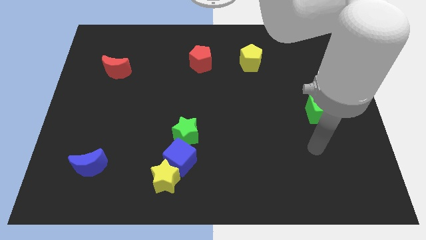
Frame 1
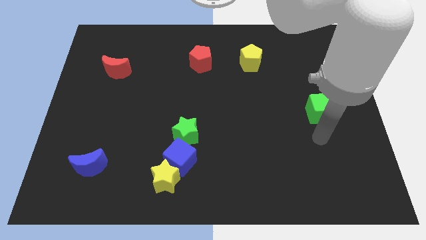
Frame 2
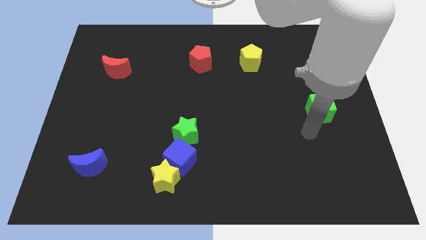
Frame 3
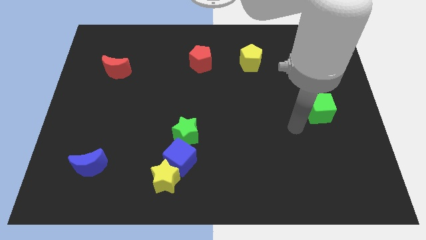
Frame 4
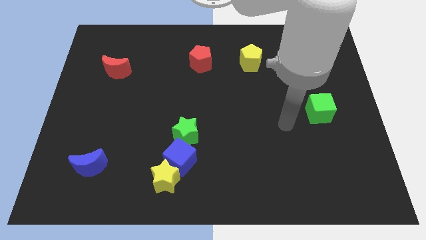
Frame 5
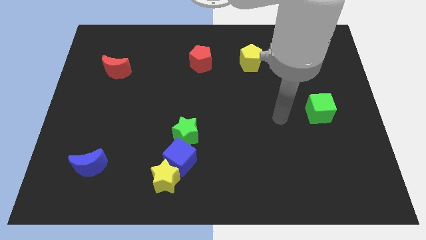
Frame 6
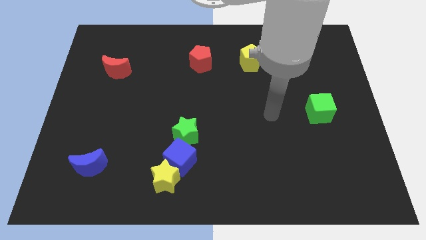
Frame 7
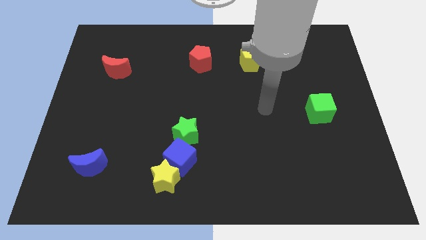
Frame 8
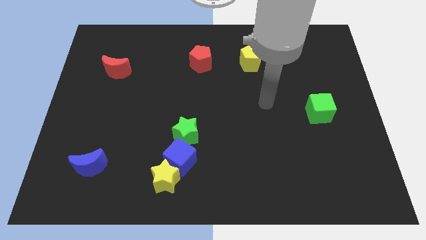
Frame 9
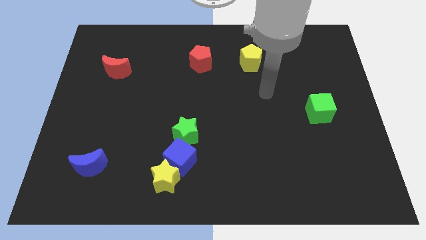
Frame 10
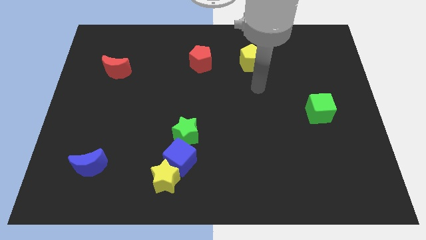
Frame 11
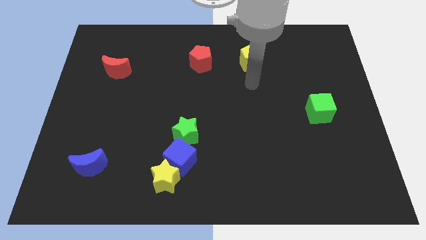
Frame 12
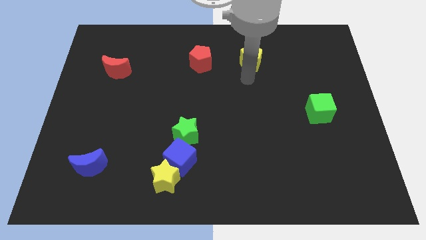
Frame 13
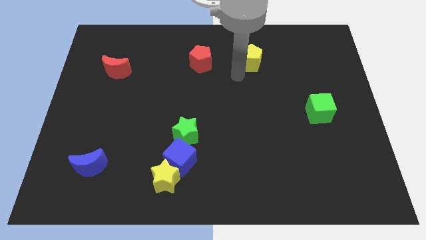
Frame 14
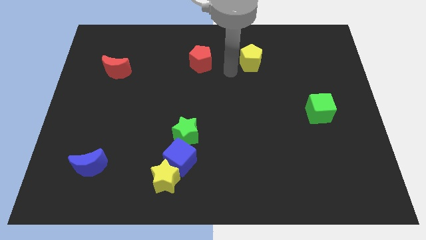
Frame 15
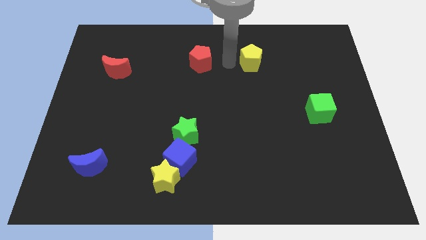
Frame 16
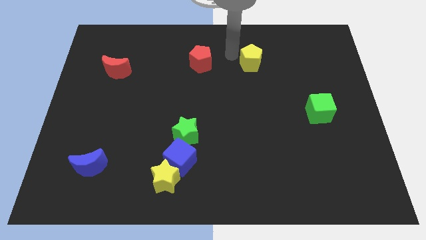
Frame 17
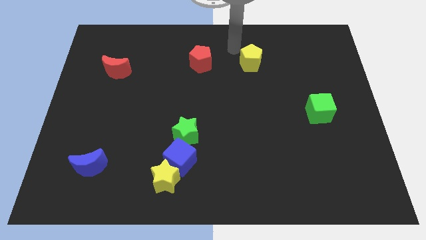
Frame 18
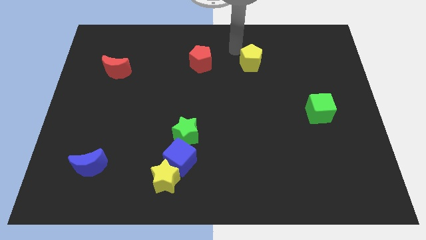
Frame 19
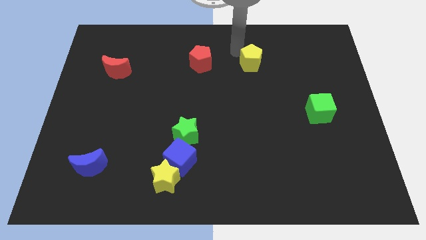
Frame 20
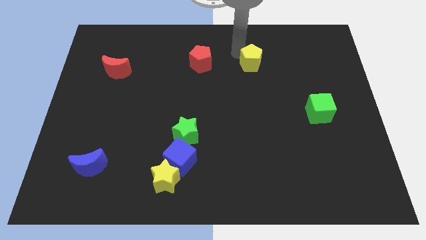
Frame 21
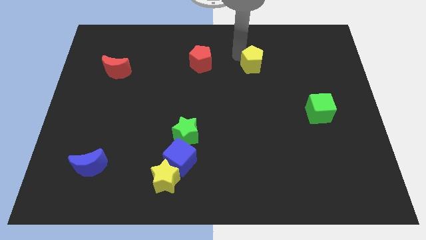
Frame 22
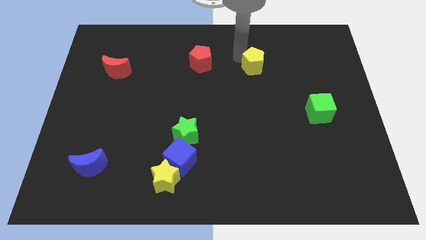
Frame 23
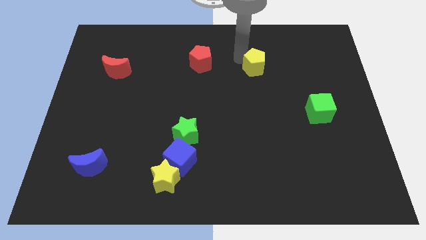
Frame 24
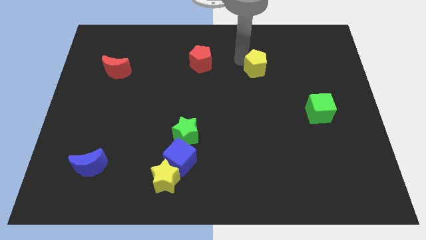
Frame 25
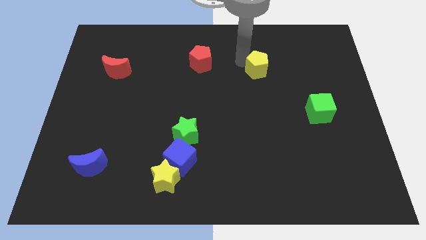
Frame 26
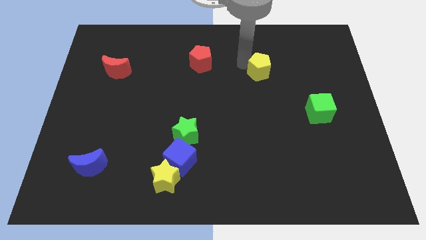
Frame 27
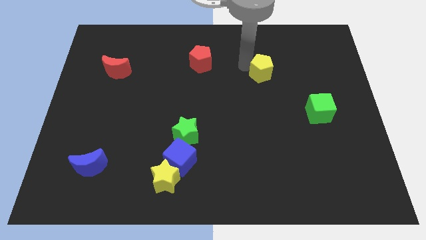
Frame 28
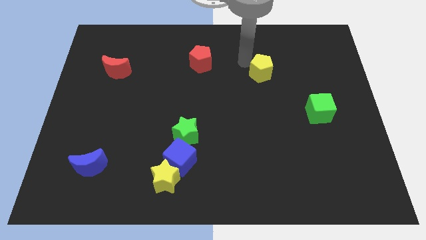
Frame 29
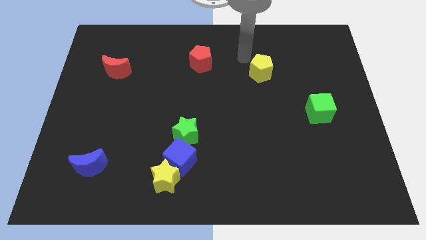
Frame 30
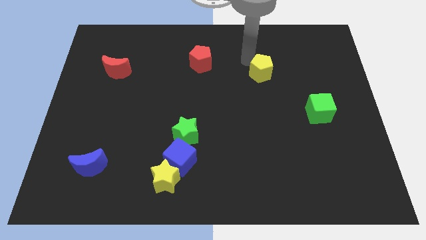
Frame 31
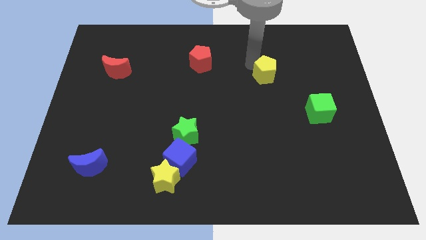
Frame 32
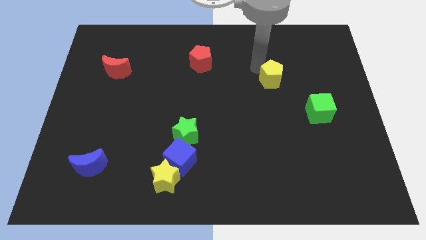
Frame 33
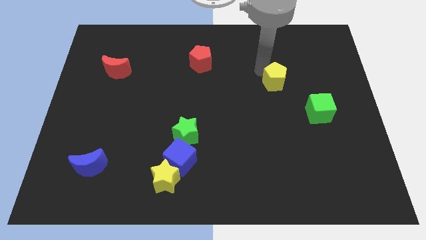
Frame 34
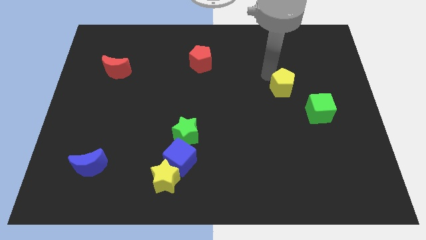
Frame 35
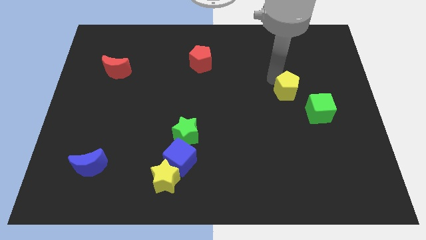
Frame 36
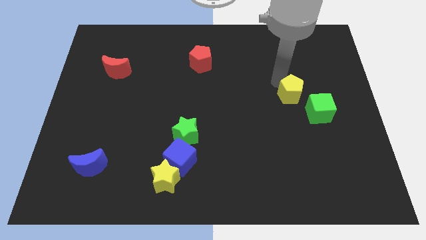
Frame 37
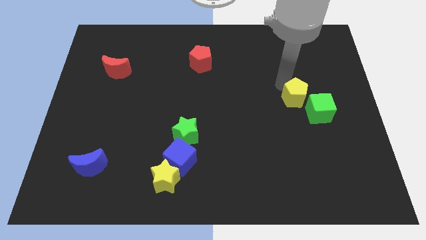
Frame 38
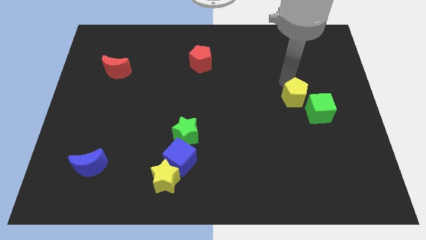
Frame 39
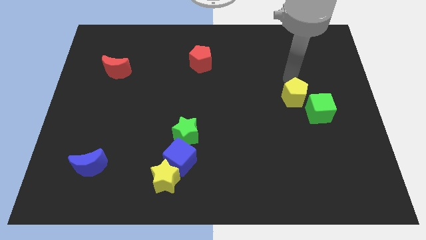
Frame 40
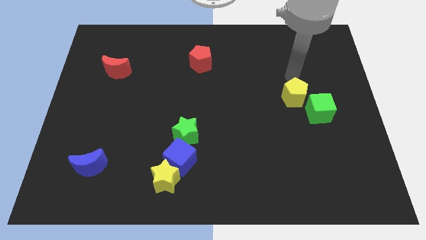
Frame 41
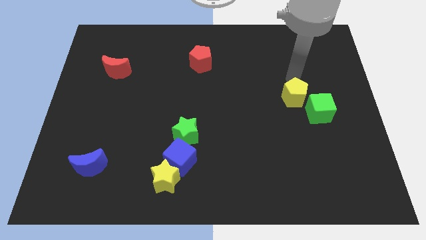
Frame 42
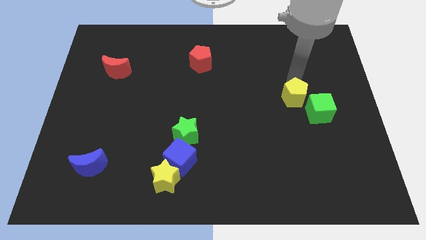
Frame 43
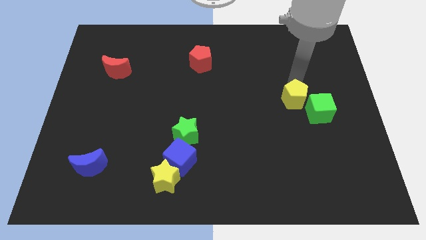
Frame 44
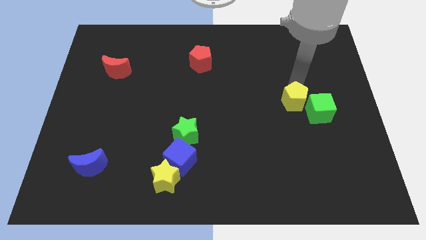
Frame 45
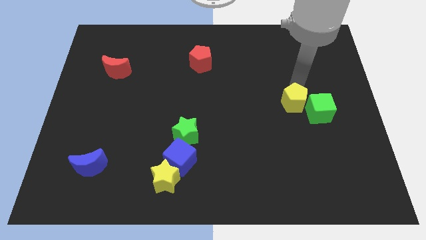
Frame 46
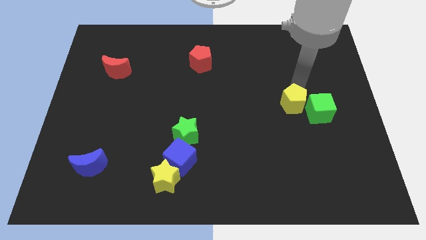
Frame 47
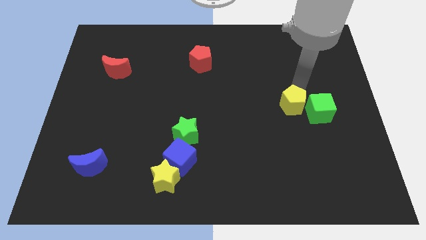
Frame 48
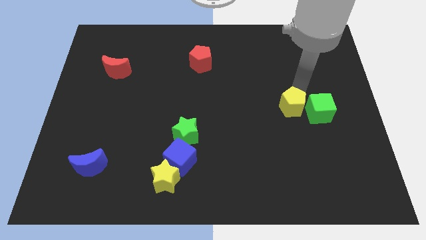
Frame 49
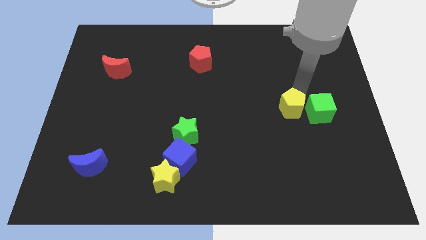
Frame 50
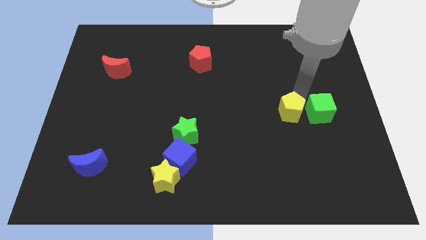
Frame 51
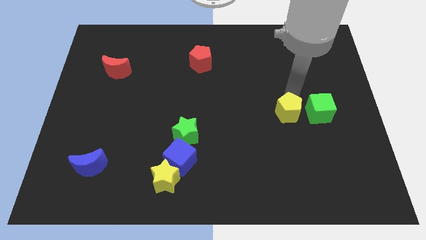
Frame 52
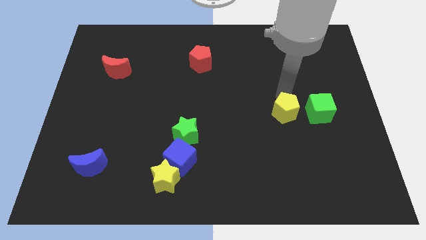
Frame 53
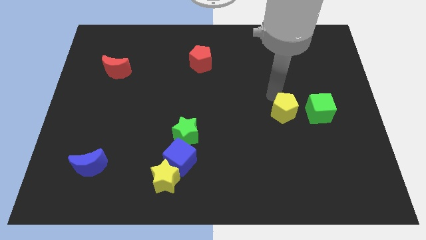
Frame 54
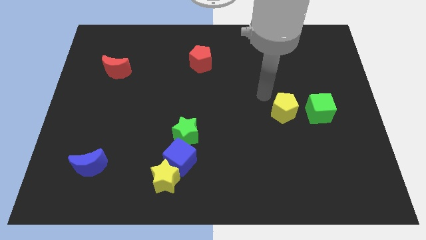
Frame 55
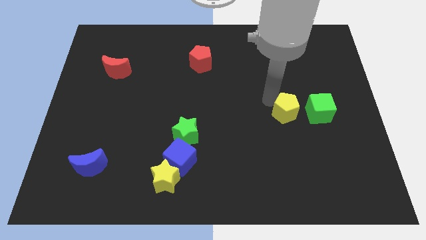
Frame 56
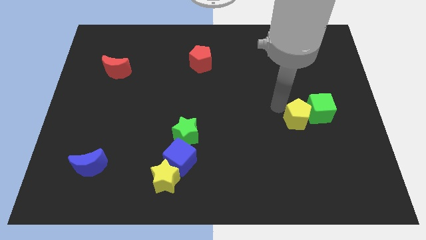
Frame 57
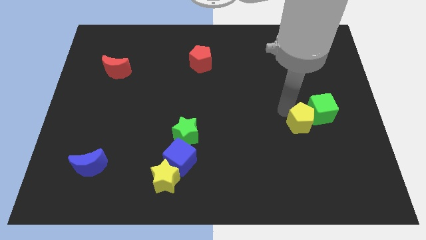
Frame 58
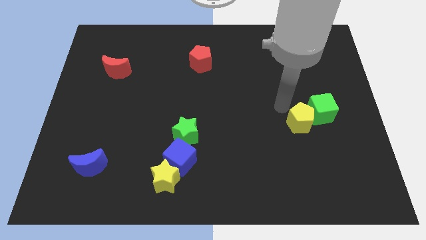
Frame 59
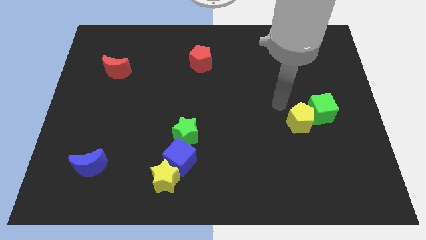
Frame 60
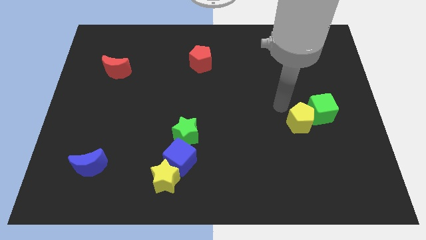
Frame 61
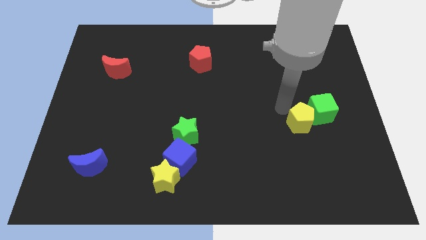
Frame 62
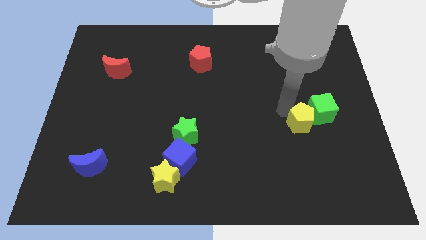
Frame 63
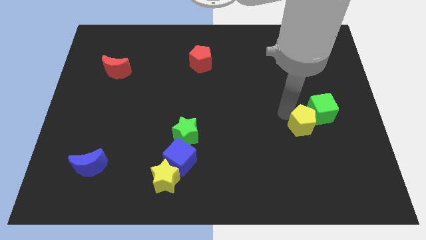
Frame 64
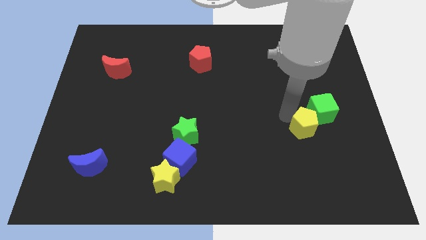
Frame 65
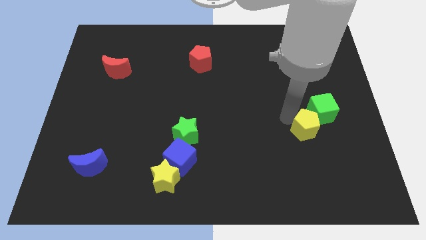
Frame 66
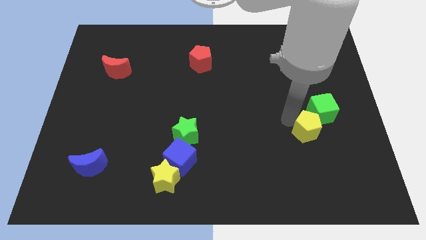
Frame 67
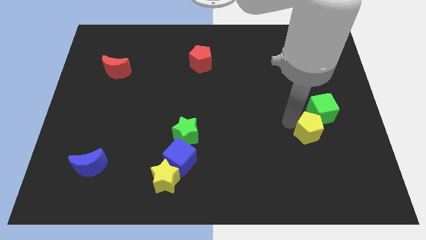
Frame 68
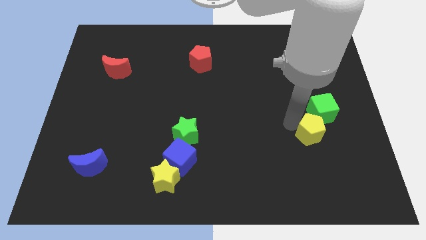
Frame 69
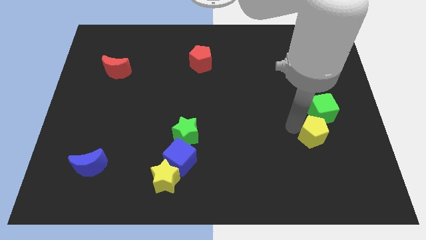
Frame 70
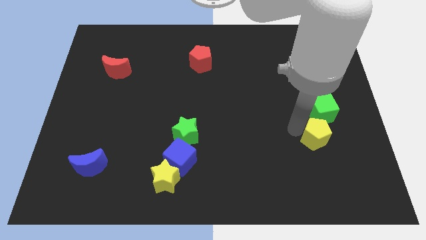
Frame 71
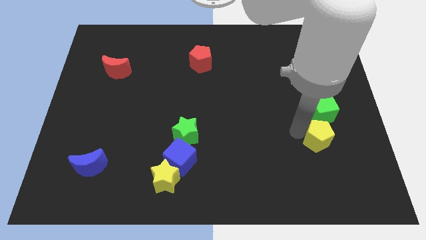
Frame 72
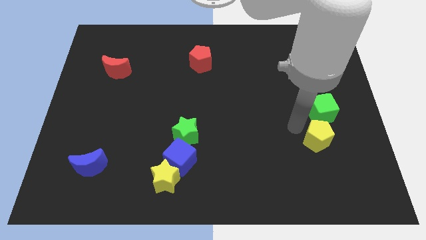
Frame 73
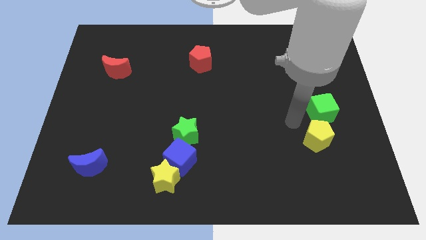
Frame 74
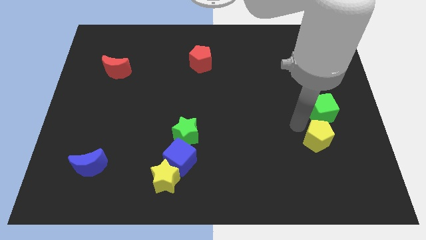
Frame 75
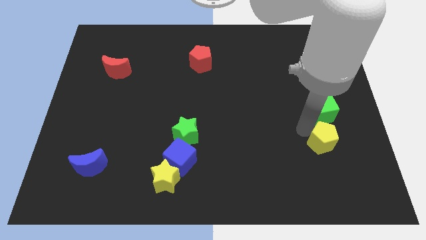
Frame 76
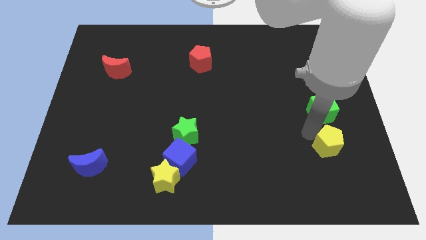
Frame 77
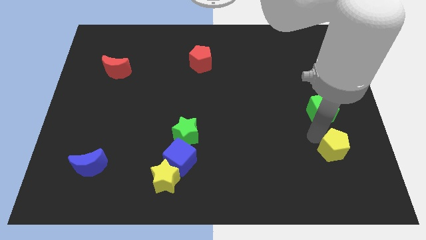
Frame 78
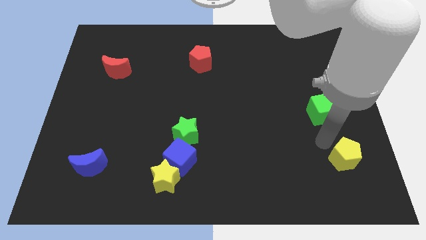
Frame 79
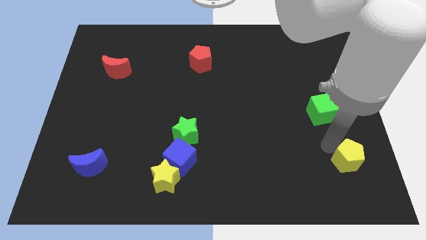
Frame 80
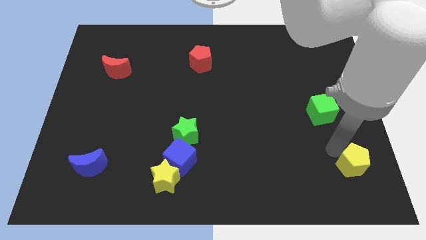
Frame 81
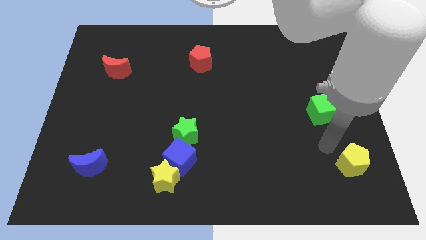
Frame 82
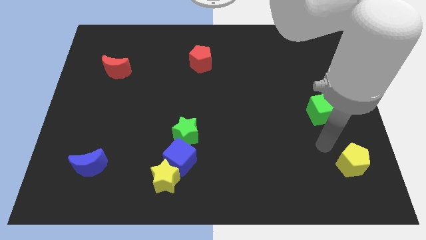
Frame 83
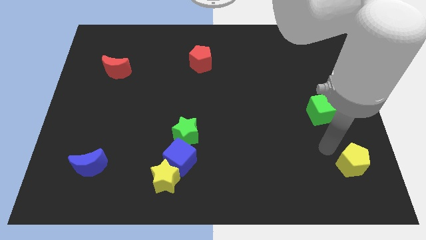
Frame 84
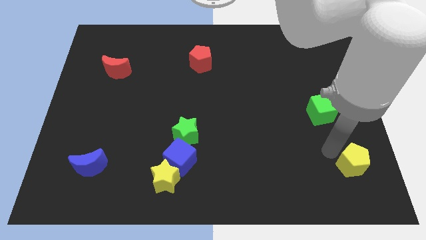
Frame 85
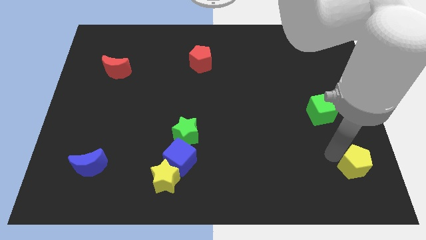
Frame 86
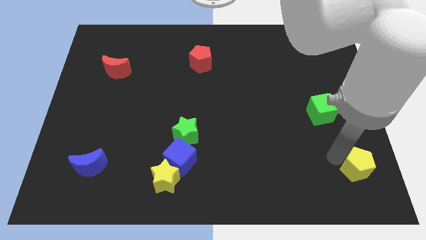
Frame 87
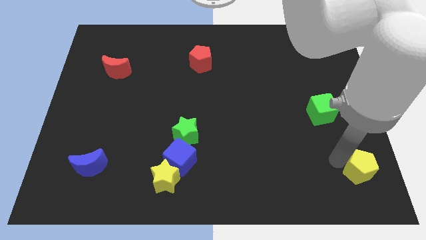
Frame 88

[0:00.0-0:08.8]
move the yellow pentagon to the bottom right of the board
